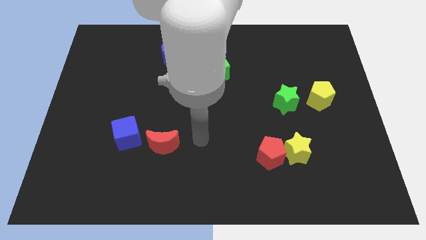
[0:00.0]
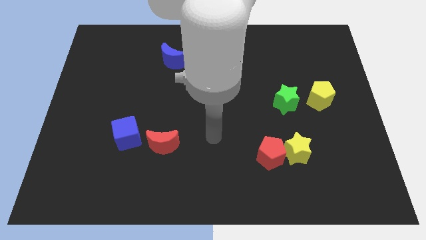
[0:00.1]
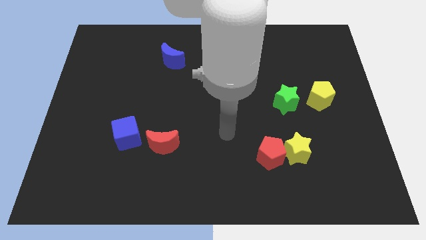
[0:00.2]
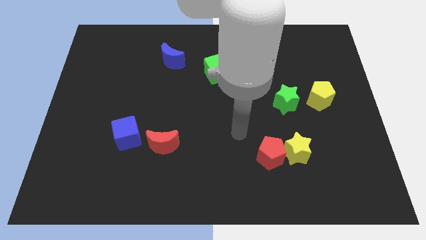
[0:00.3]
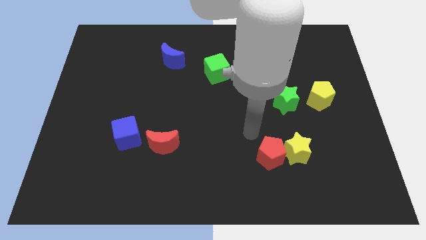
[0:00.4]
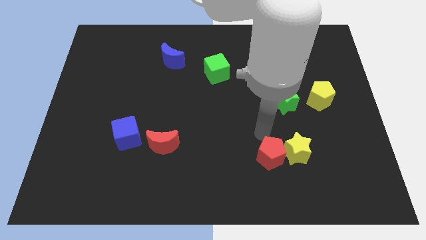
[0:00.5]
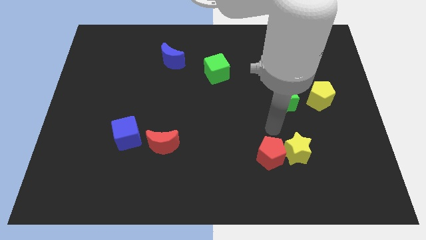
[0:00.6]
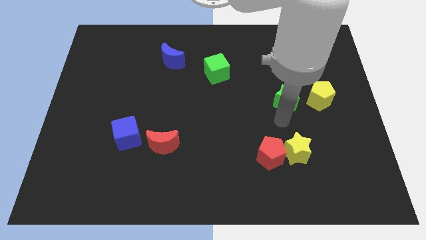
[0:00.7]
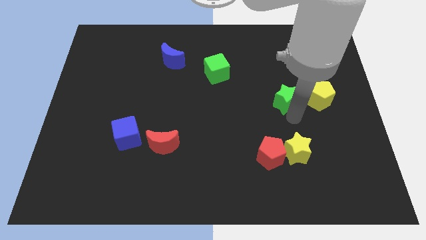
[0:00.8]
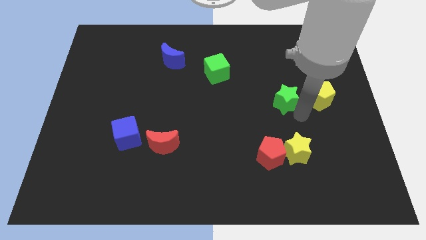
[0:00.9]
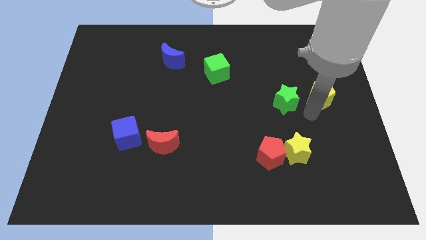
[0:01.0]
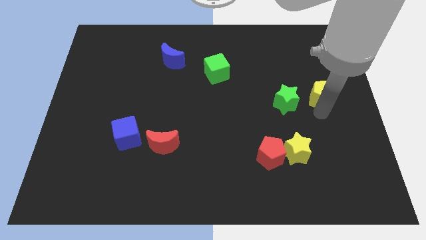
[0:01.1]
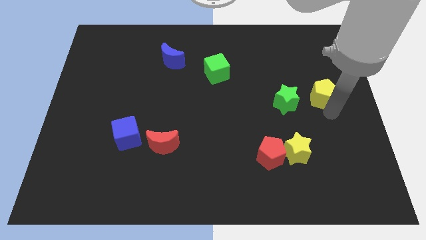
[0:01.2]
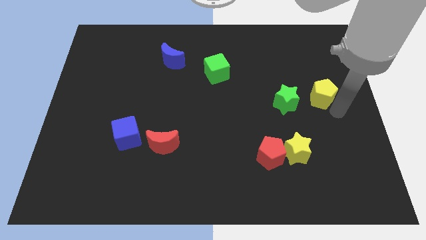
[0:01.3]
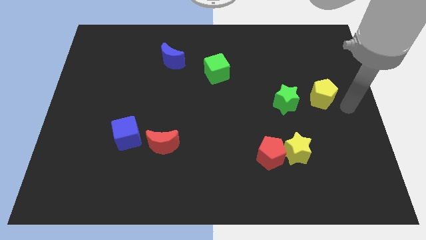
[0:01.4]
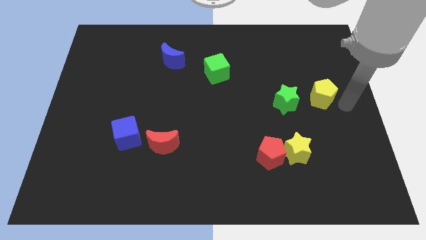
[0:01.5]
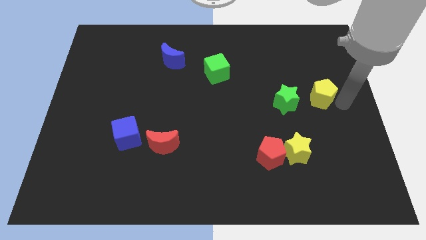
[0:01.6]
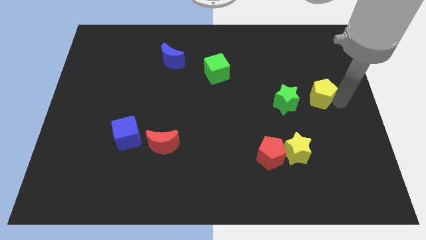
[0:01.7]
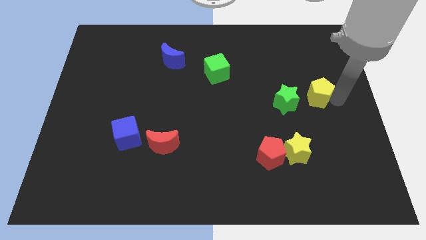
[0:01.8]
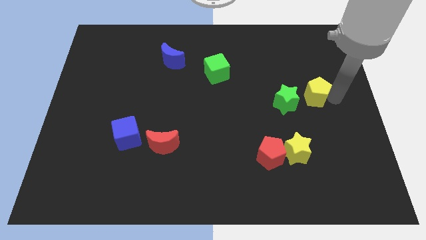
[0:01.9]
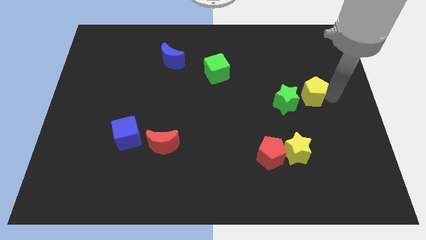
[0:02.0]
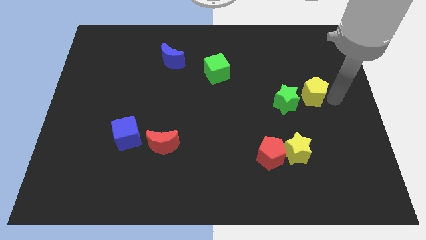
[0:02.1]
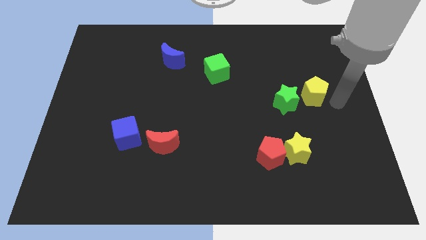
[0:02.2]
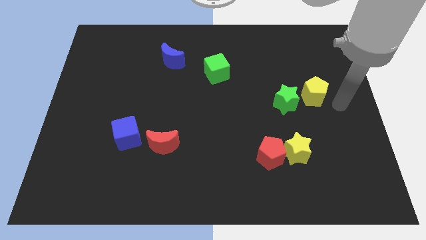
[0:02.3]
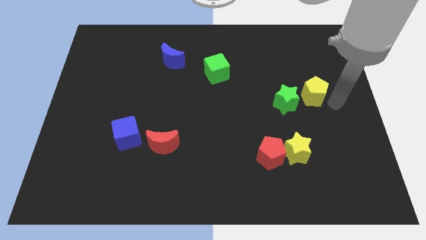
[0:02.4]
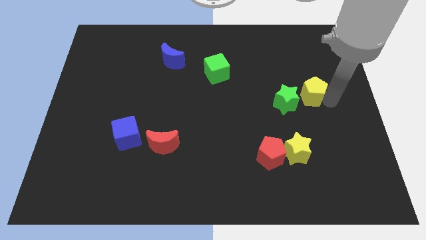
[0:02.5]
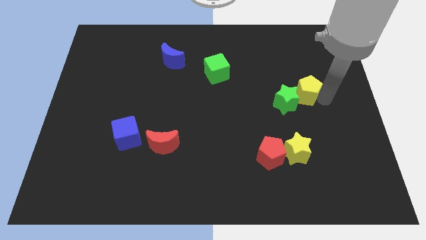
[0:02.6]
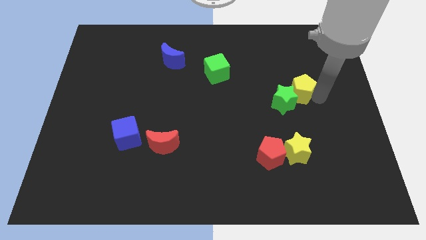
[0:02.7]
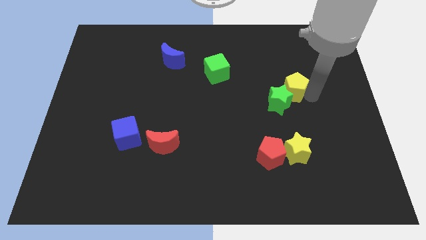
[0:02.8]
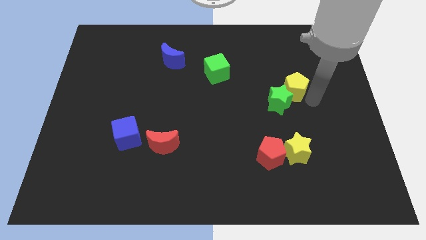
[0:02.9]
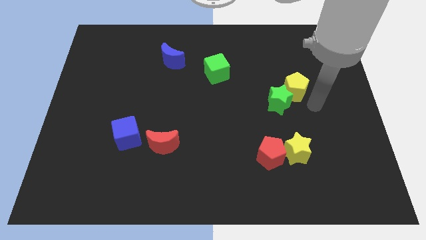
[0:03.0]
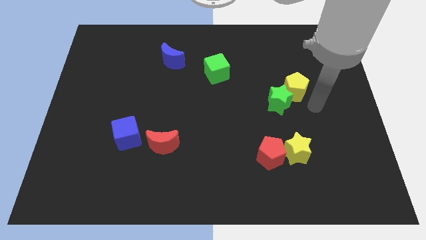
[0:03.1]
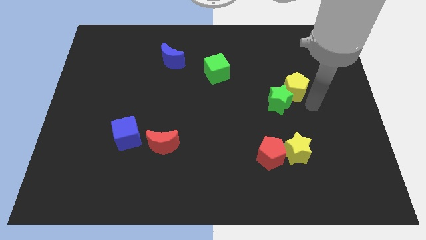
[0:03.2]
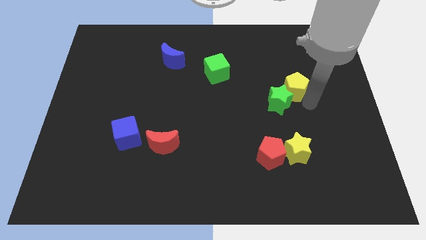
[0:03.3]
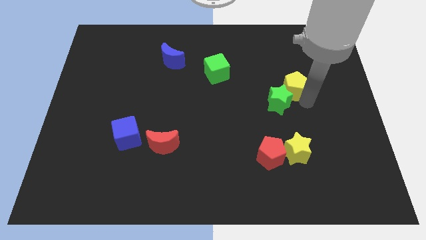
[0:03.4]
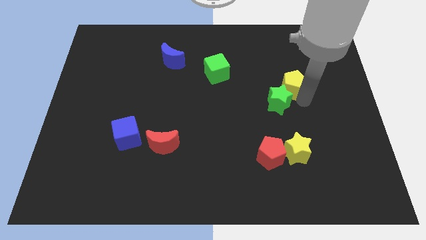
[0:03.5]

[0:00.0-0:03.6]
slide the yellow pentagon up and left diagonally slightly

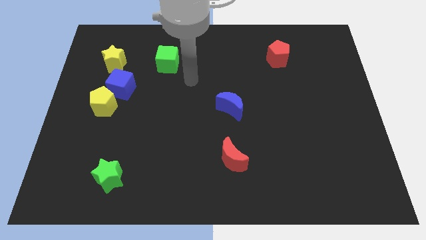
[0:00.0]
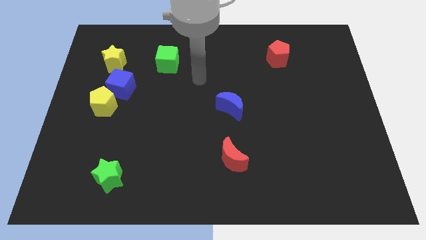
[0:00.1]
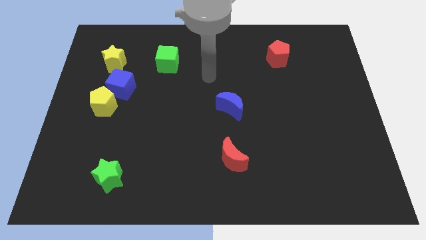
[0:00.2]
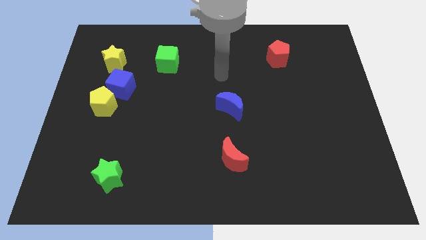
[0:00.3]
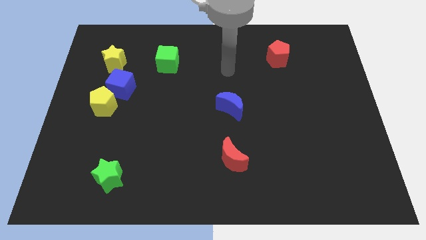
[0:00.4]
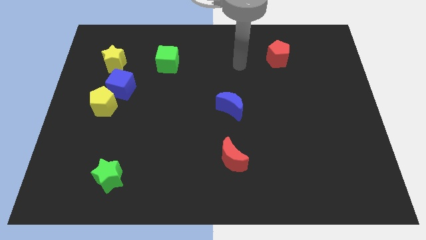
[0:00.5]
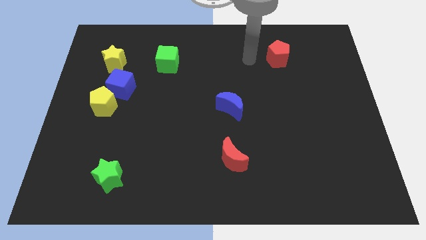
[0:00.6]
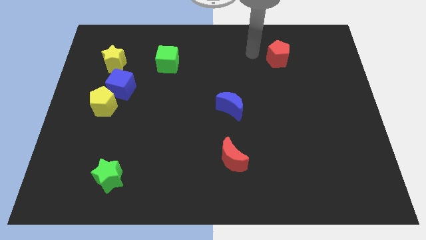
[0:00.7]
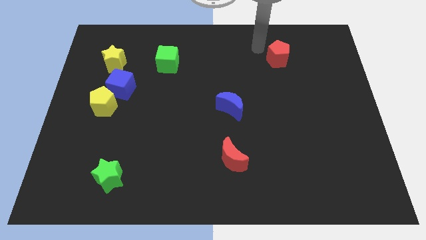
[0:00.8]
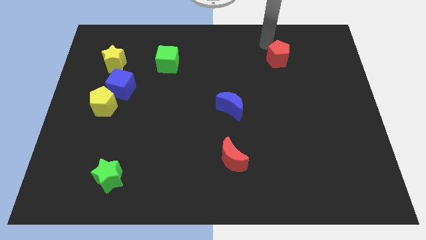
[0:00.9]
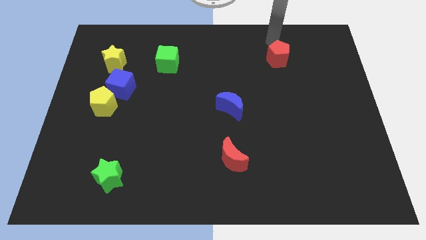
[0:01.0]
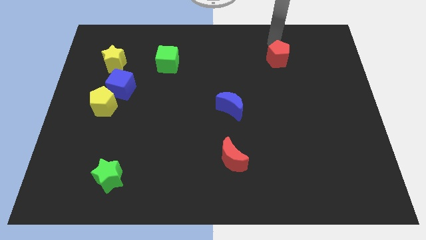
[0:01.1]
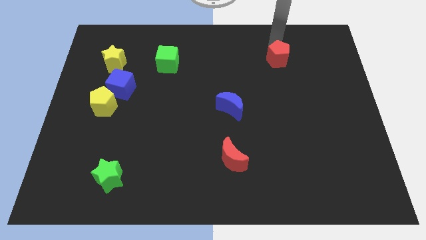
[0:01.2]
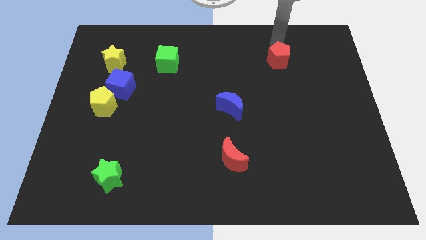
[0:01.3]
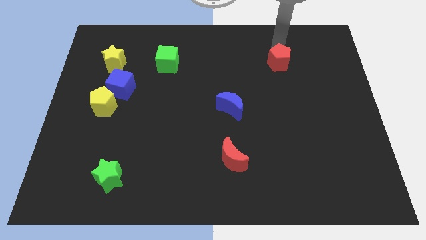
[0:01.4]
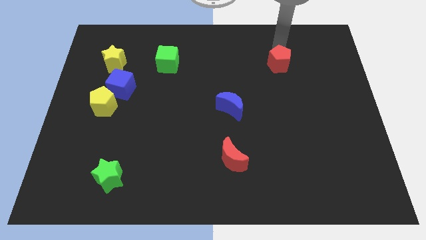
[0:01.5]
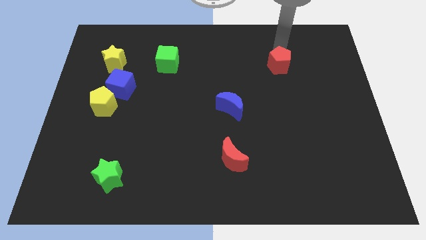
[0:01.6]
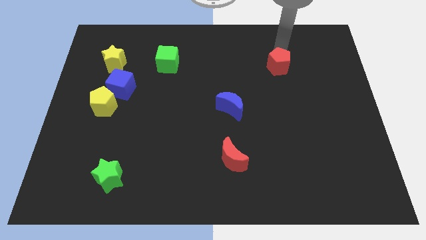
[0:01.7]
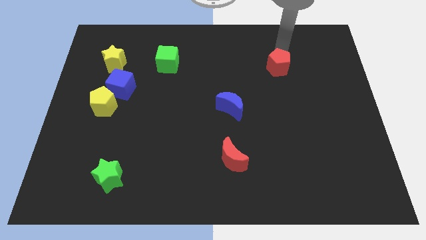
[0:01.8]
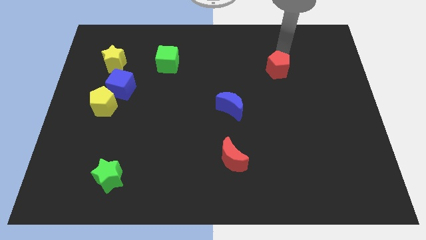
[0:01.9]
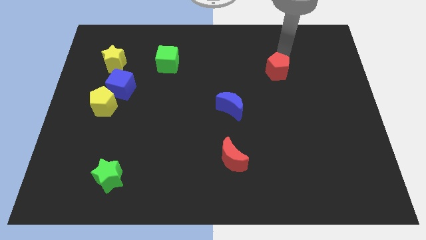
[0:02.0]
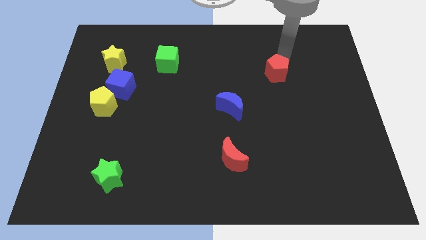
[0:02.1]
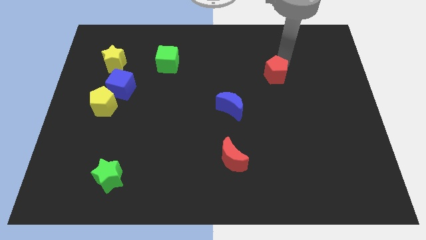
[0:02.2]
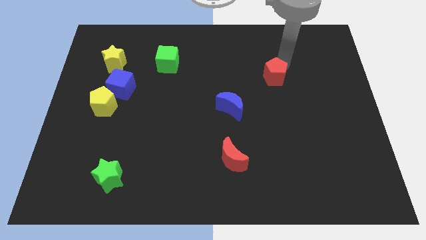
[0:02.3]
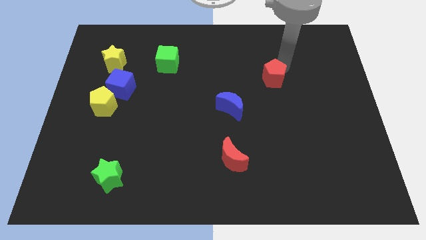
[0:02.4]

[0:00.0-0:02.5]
slightly push the red pentagon downwards

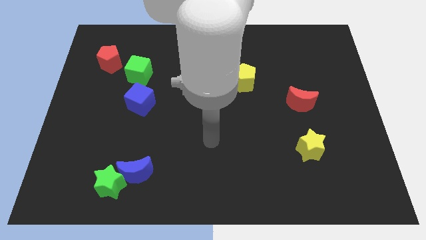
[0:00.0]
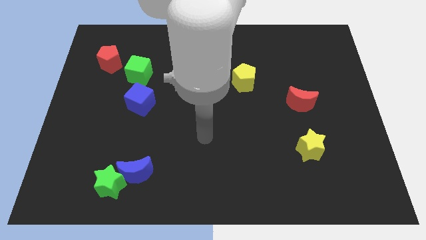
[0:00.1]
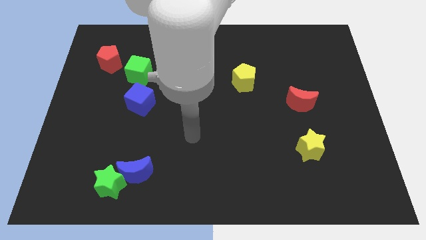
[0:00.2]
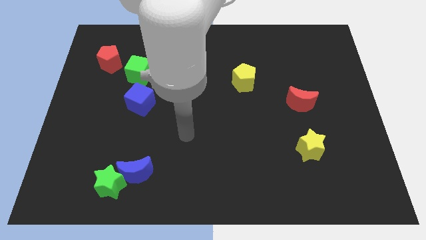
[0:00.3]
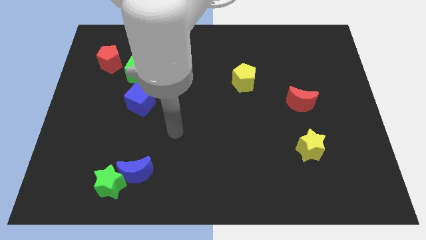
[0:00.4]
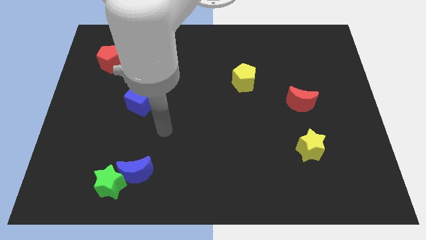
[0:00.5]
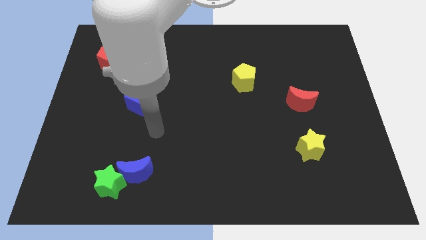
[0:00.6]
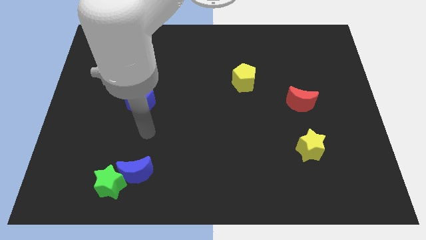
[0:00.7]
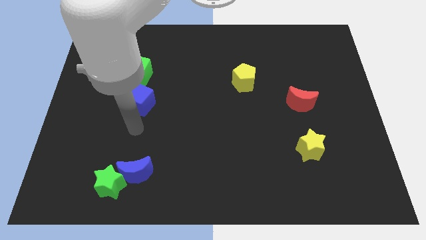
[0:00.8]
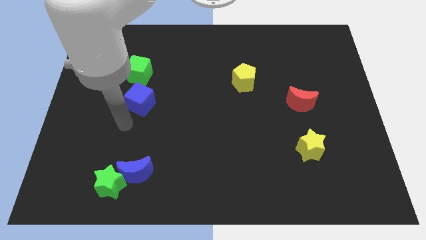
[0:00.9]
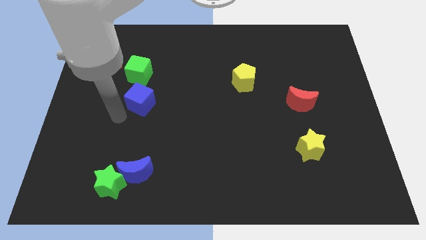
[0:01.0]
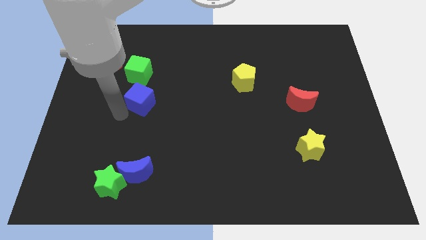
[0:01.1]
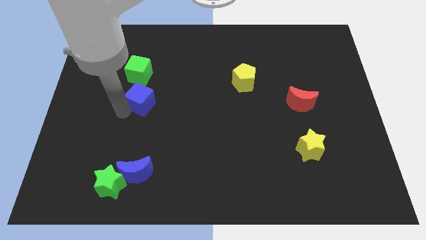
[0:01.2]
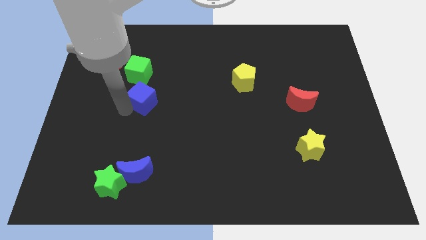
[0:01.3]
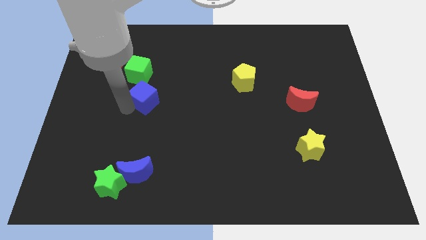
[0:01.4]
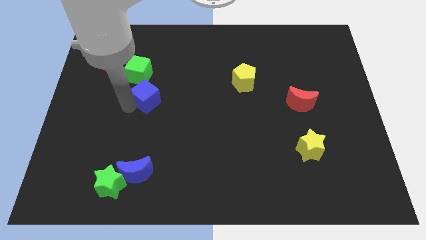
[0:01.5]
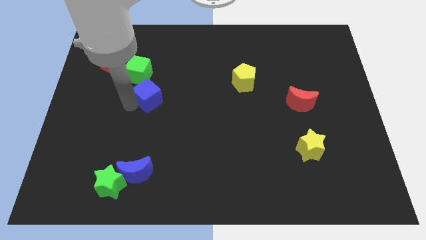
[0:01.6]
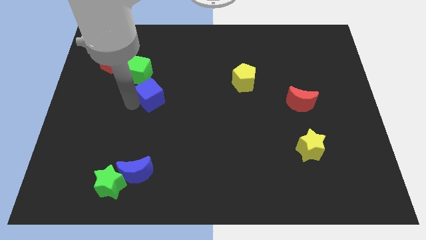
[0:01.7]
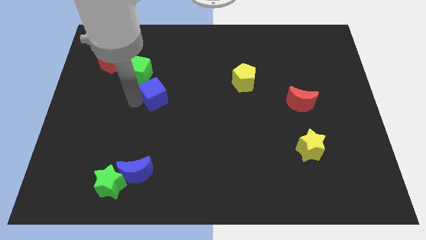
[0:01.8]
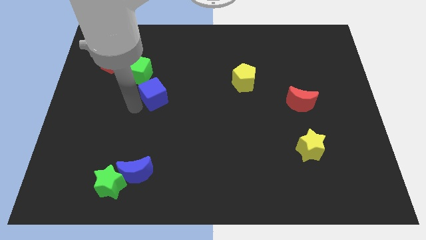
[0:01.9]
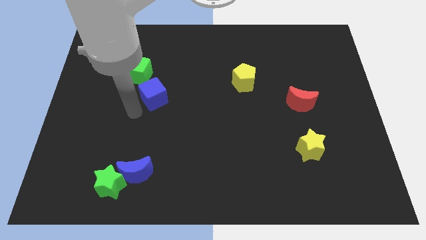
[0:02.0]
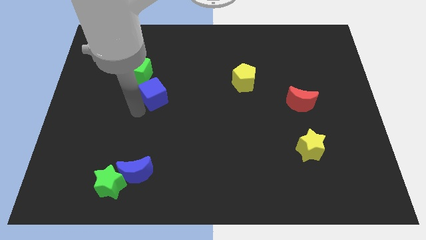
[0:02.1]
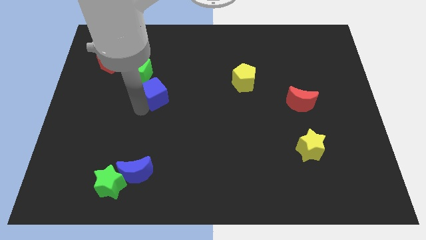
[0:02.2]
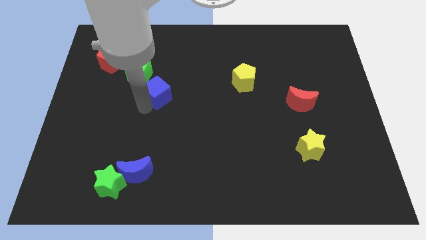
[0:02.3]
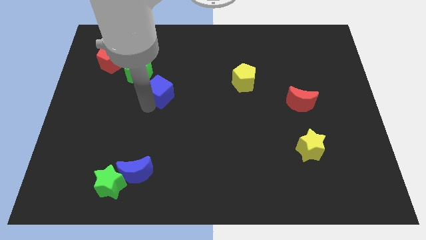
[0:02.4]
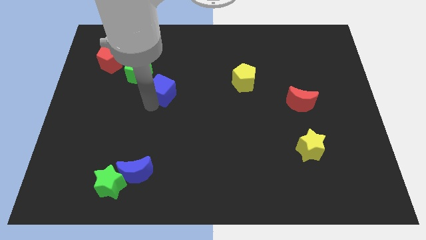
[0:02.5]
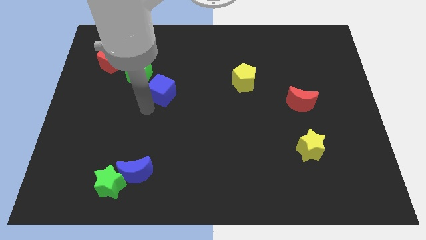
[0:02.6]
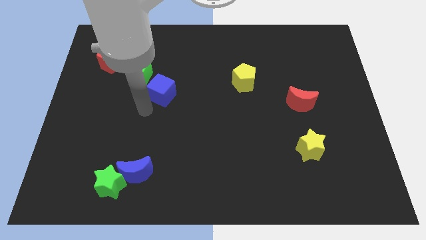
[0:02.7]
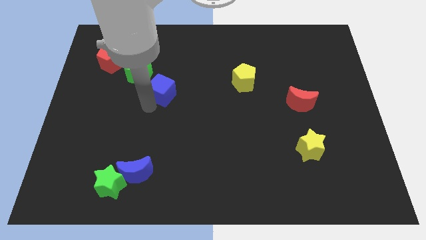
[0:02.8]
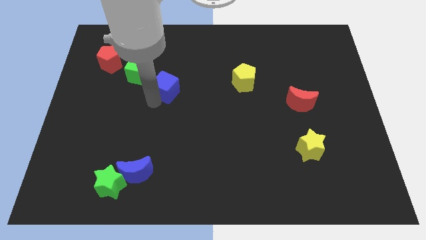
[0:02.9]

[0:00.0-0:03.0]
move the blue cube diagonally up and to the right a little bit
